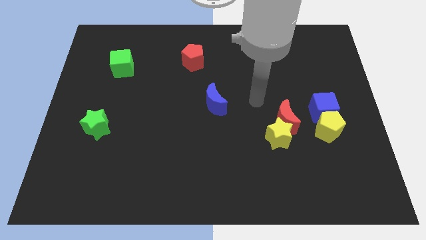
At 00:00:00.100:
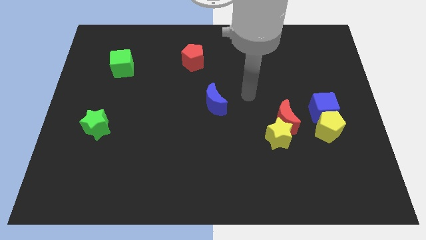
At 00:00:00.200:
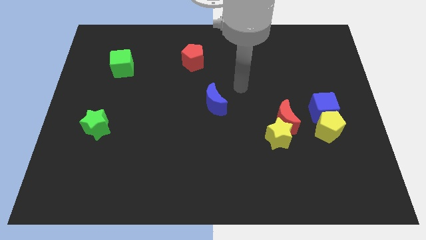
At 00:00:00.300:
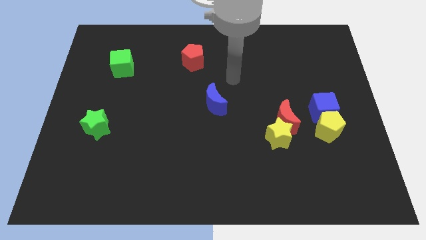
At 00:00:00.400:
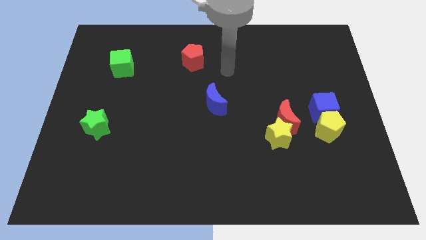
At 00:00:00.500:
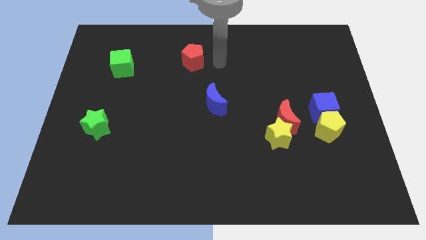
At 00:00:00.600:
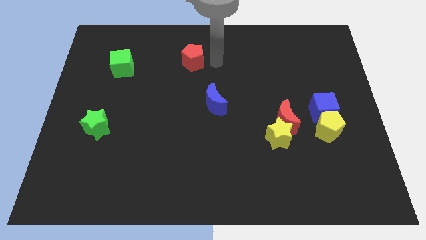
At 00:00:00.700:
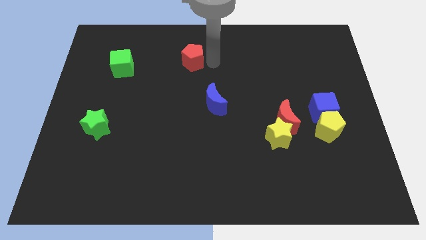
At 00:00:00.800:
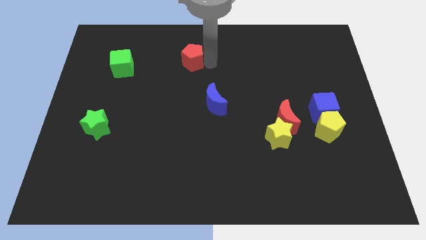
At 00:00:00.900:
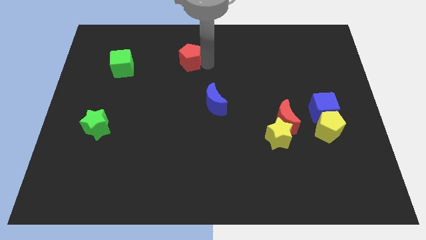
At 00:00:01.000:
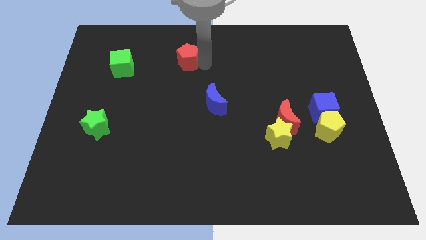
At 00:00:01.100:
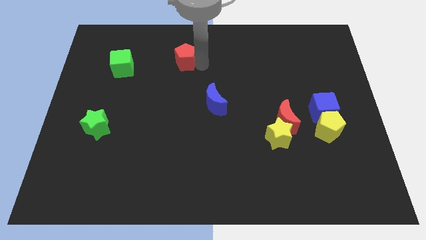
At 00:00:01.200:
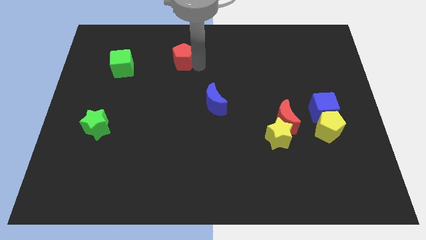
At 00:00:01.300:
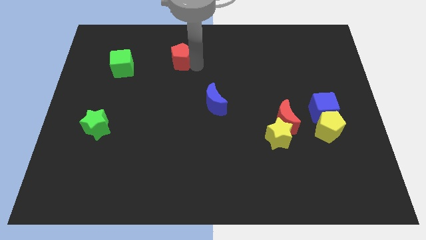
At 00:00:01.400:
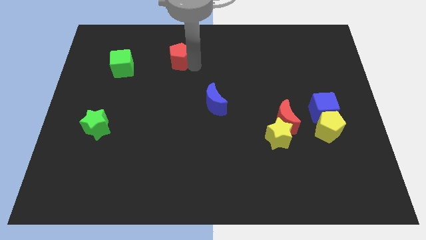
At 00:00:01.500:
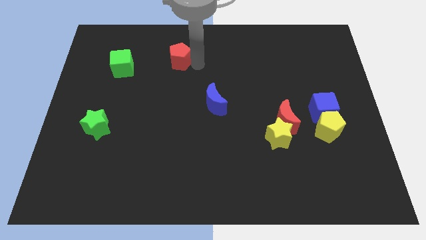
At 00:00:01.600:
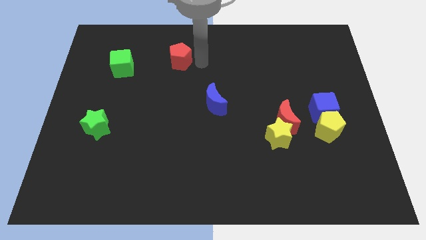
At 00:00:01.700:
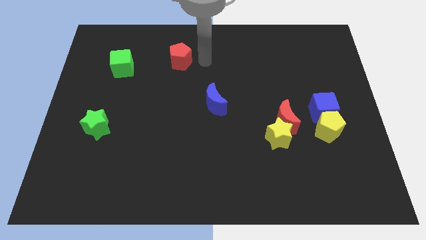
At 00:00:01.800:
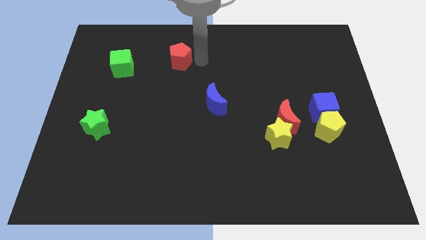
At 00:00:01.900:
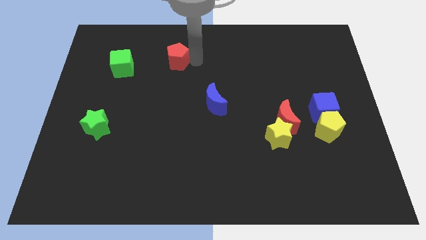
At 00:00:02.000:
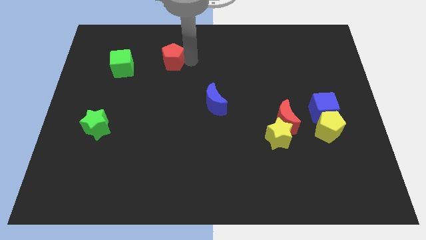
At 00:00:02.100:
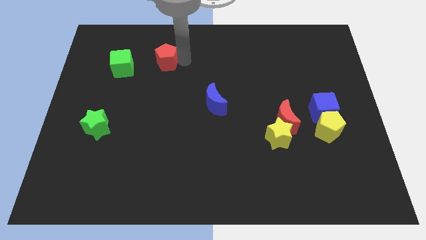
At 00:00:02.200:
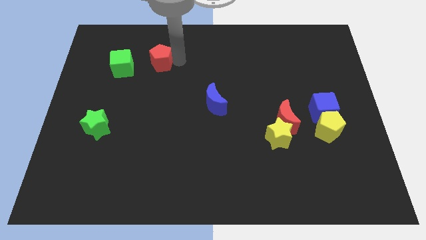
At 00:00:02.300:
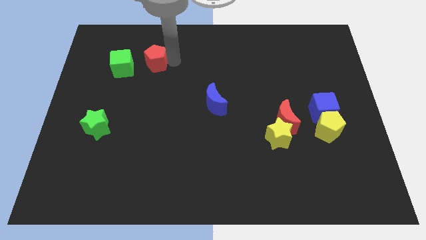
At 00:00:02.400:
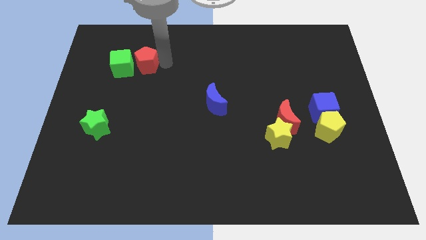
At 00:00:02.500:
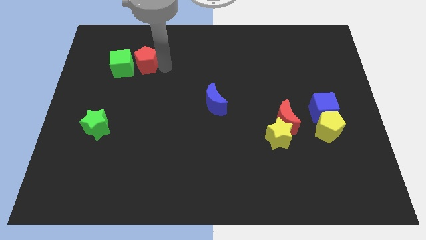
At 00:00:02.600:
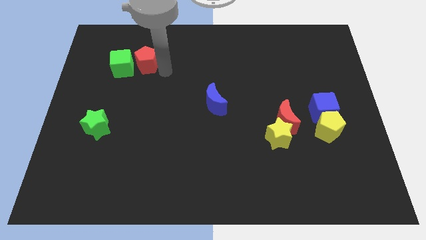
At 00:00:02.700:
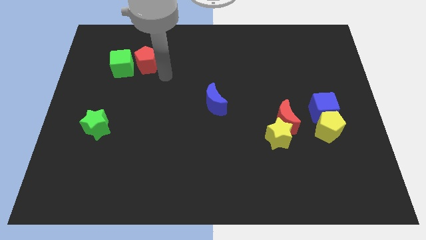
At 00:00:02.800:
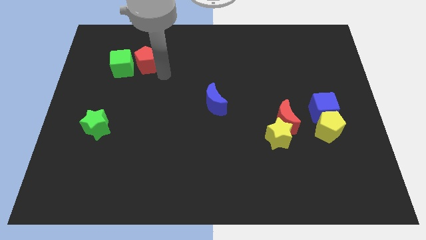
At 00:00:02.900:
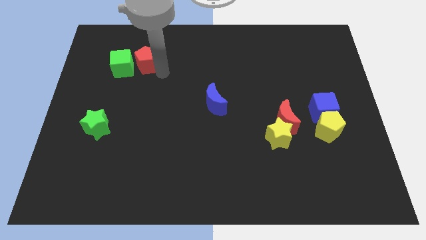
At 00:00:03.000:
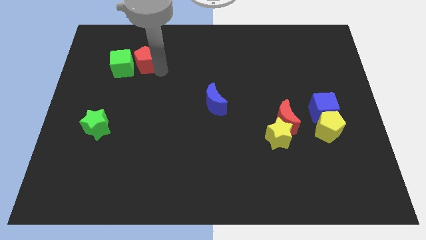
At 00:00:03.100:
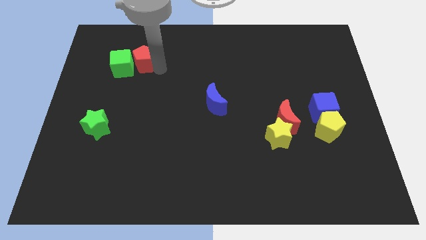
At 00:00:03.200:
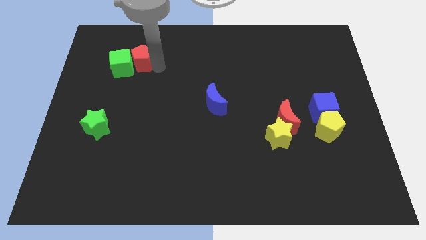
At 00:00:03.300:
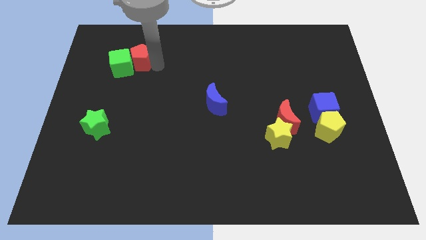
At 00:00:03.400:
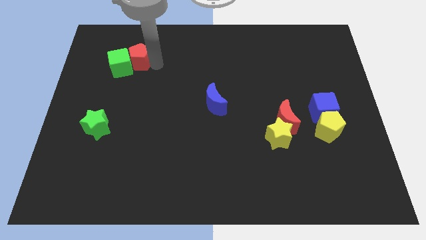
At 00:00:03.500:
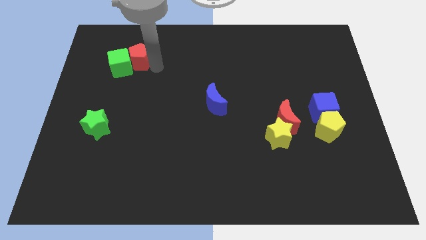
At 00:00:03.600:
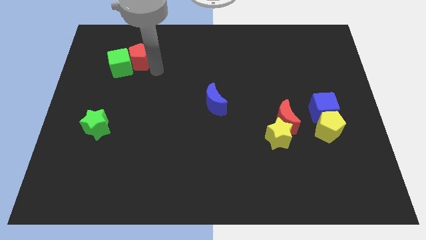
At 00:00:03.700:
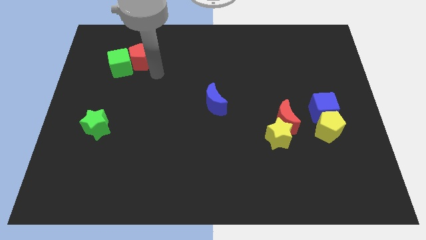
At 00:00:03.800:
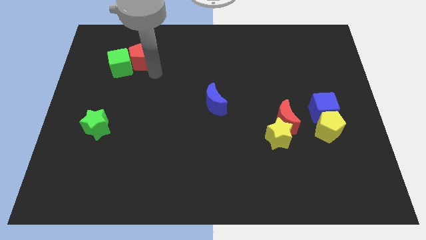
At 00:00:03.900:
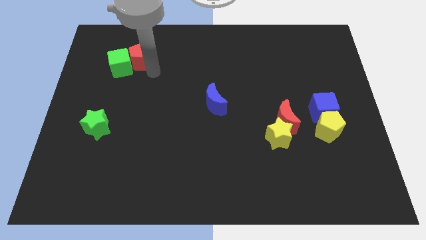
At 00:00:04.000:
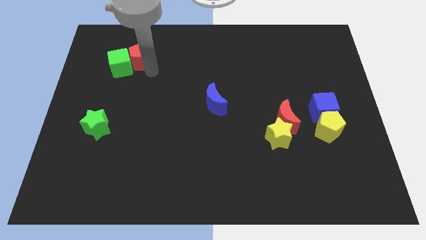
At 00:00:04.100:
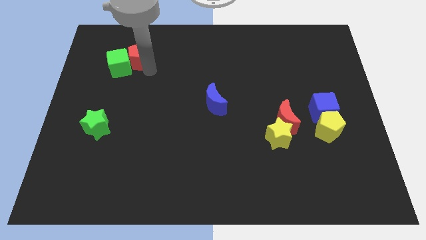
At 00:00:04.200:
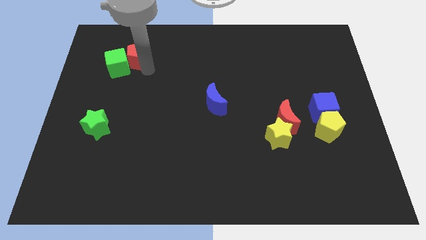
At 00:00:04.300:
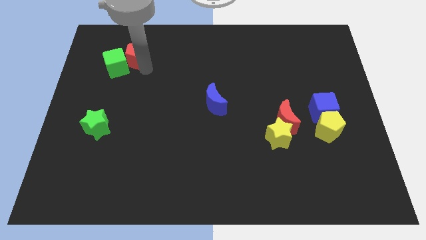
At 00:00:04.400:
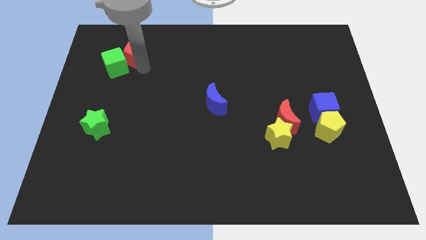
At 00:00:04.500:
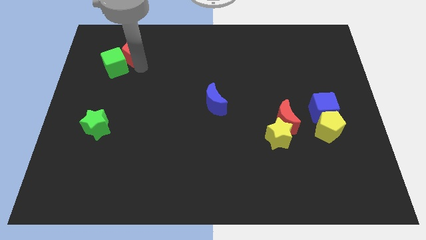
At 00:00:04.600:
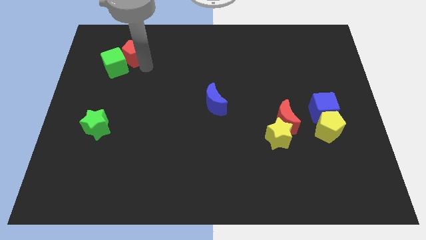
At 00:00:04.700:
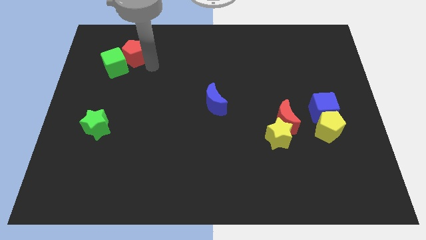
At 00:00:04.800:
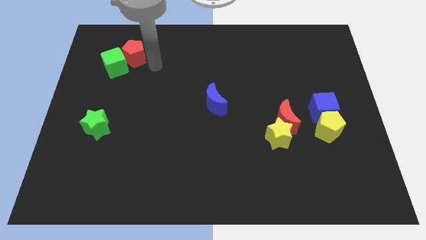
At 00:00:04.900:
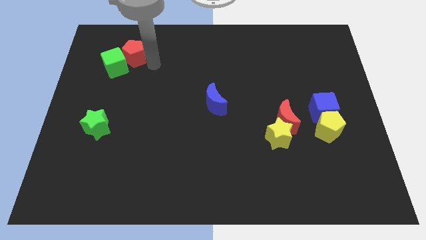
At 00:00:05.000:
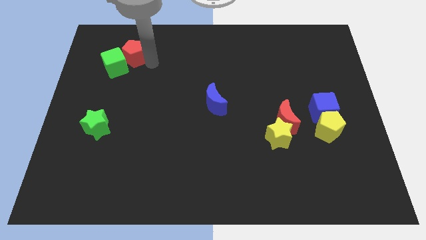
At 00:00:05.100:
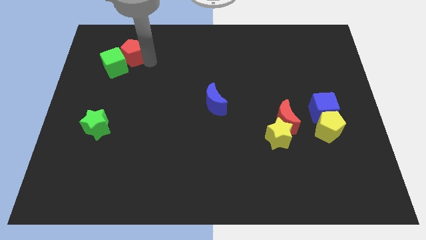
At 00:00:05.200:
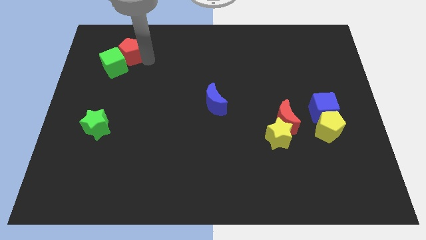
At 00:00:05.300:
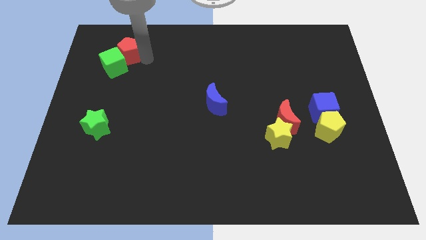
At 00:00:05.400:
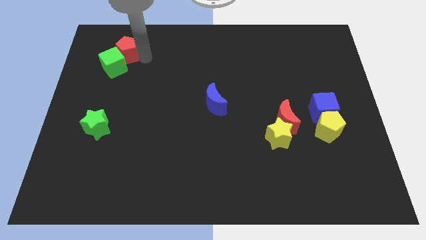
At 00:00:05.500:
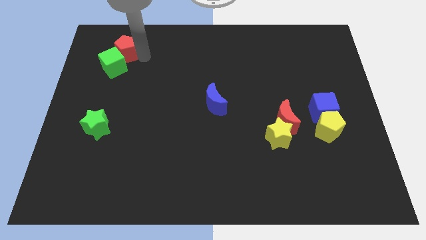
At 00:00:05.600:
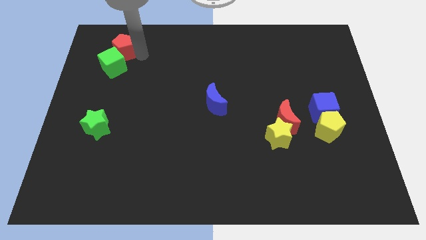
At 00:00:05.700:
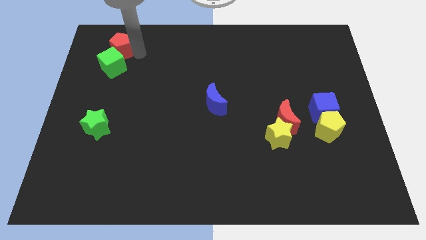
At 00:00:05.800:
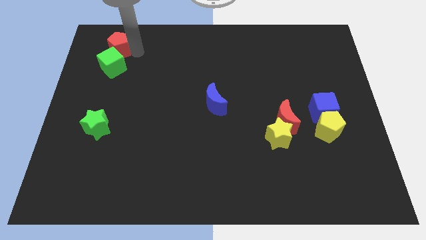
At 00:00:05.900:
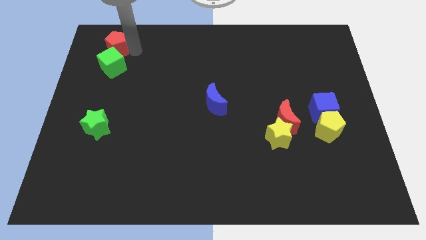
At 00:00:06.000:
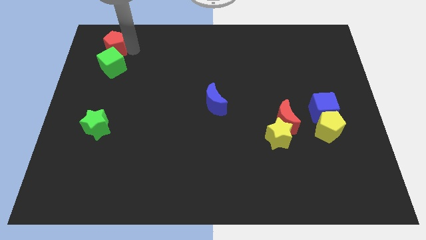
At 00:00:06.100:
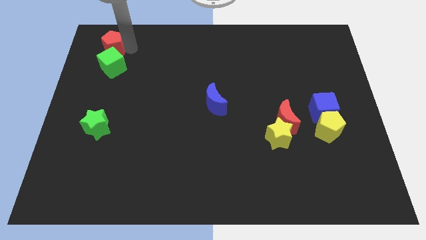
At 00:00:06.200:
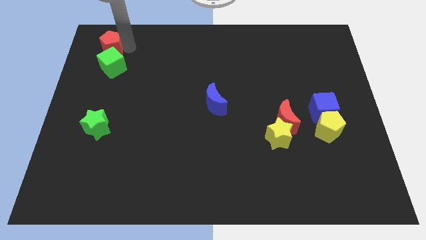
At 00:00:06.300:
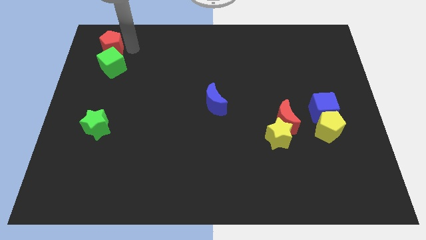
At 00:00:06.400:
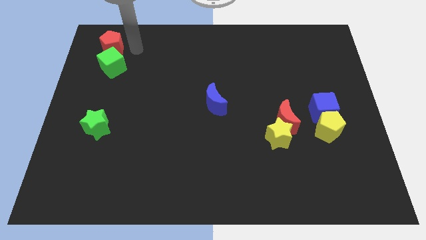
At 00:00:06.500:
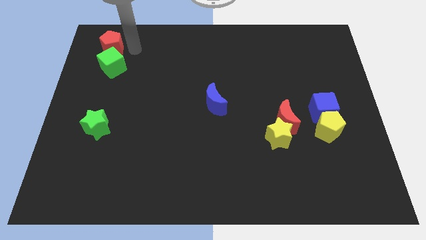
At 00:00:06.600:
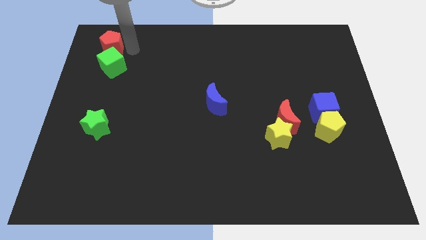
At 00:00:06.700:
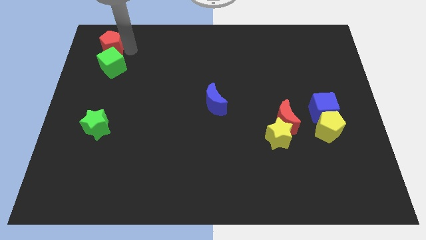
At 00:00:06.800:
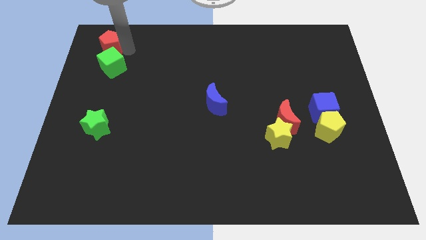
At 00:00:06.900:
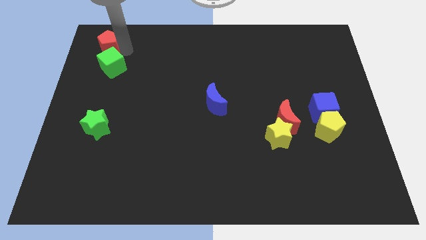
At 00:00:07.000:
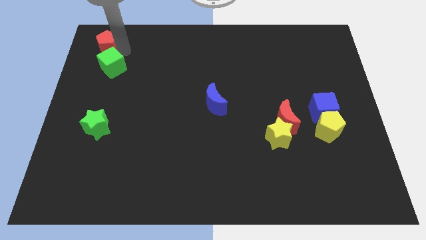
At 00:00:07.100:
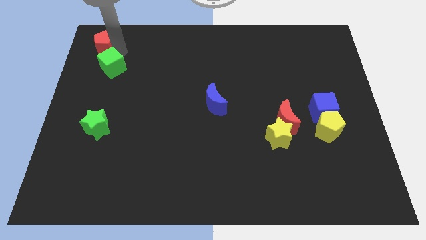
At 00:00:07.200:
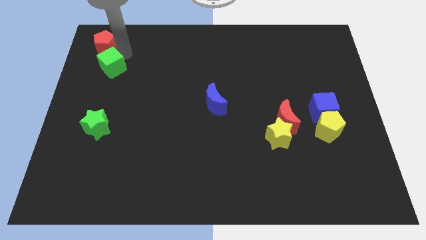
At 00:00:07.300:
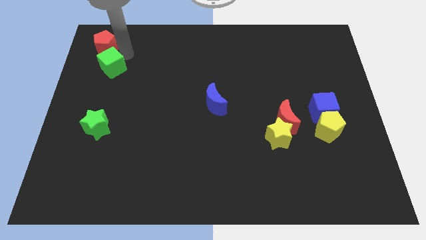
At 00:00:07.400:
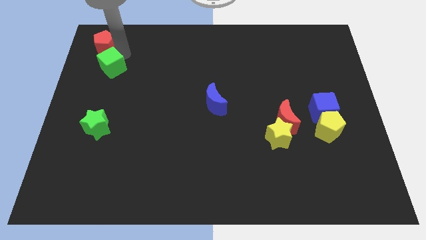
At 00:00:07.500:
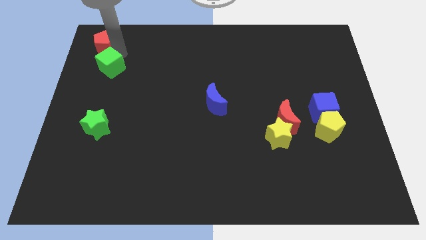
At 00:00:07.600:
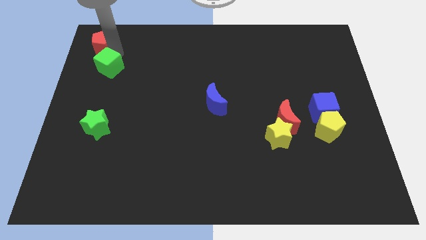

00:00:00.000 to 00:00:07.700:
slide the red pentagon to the top left of the board
